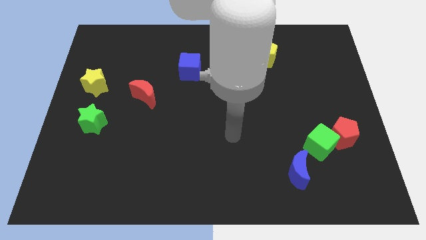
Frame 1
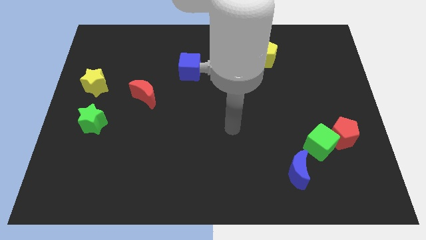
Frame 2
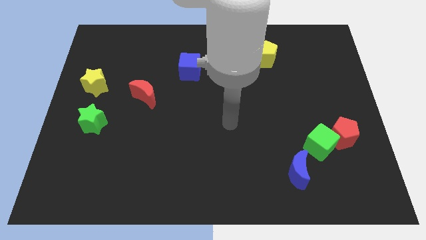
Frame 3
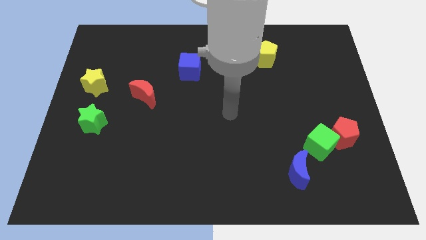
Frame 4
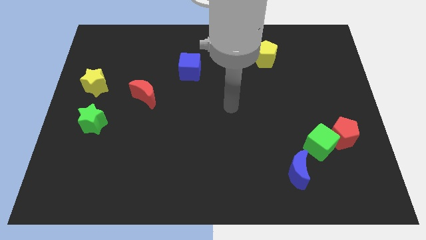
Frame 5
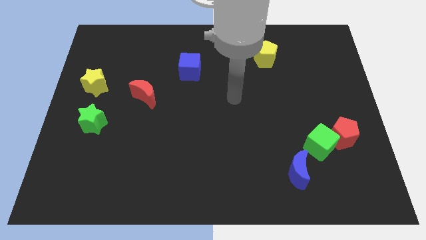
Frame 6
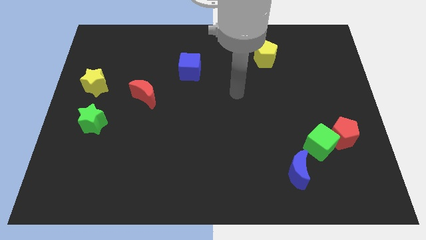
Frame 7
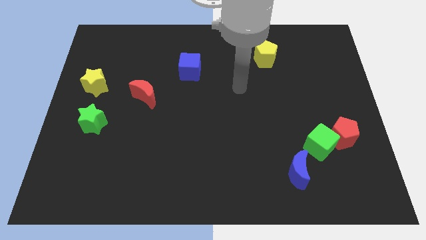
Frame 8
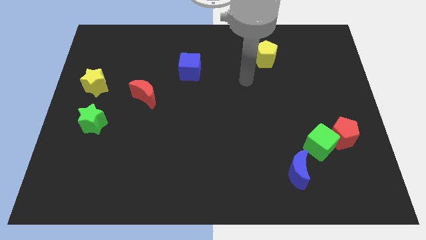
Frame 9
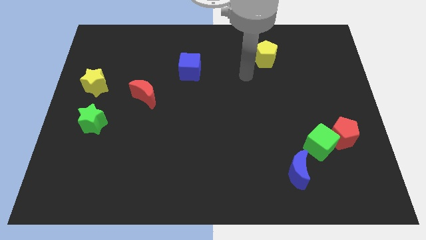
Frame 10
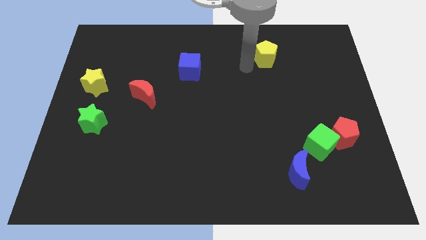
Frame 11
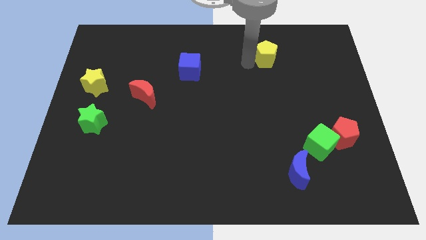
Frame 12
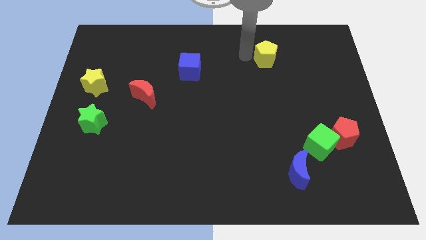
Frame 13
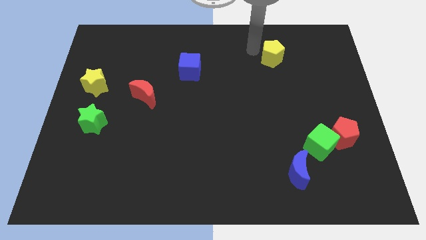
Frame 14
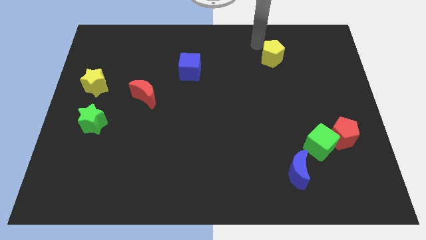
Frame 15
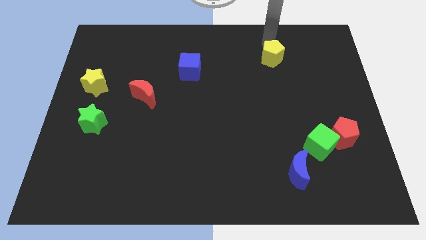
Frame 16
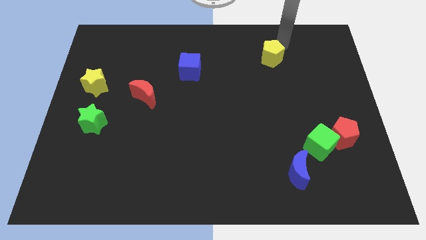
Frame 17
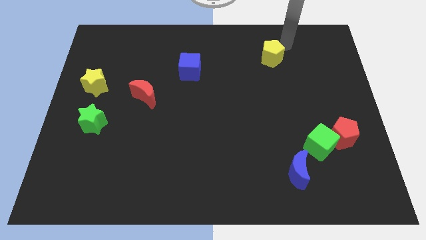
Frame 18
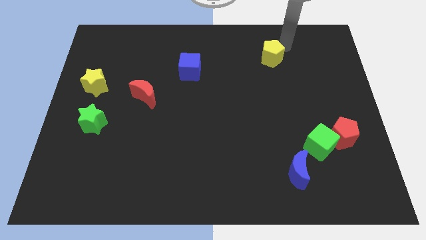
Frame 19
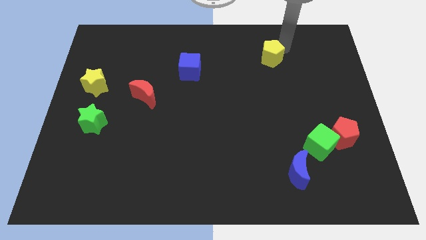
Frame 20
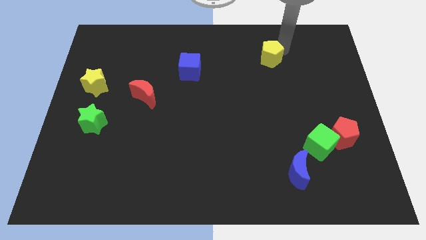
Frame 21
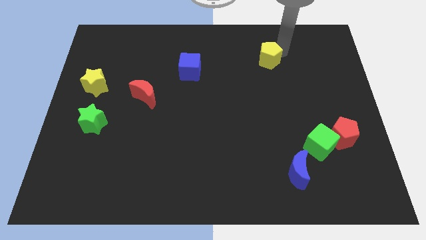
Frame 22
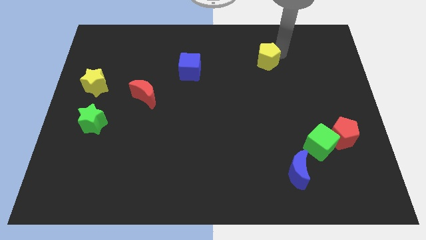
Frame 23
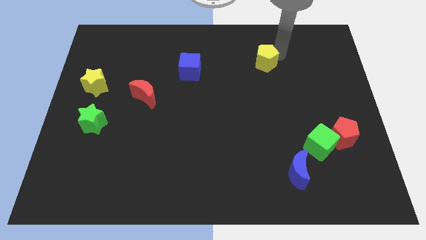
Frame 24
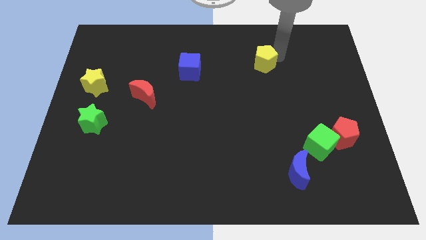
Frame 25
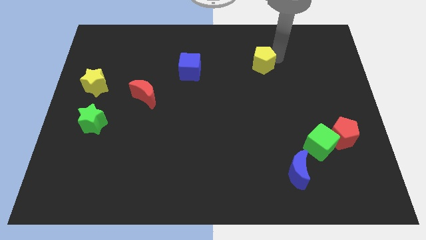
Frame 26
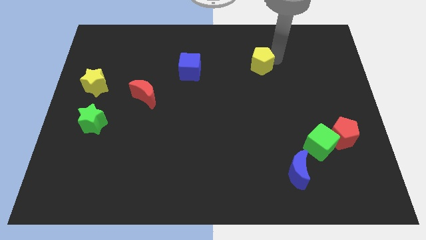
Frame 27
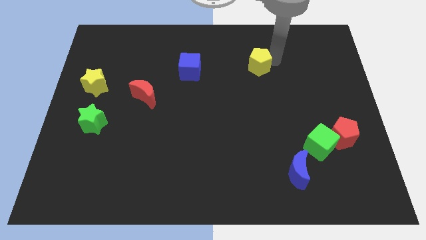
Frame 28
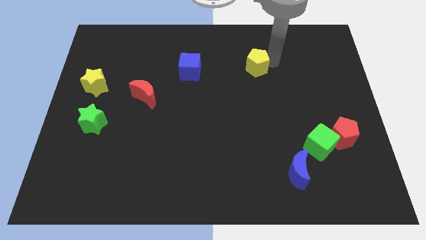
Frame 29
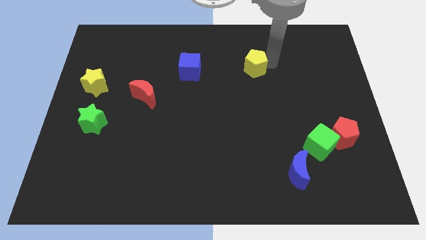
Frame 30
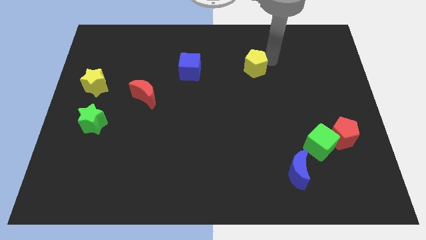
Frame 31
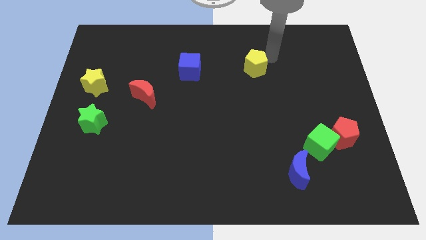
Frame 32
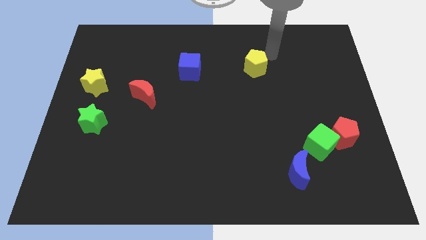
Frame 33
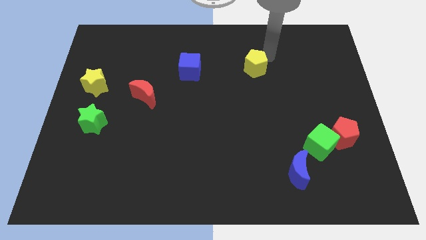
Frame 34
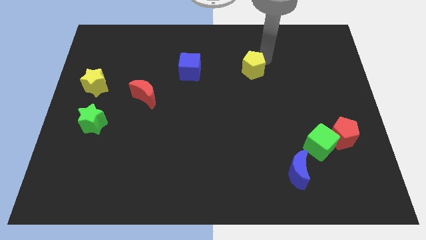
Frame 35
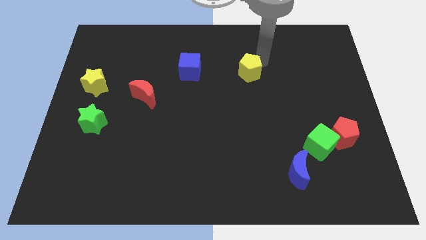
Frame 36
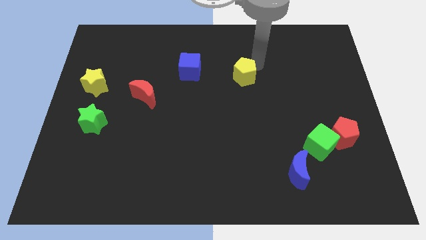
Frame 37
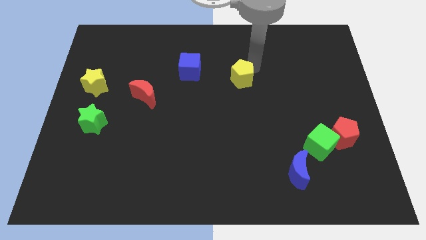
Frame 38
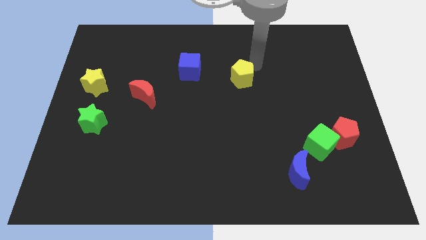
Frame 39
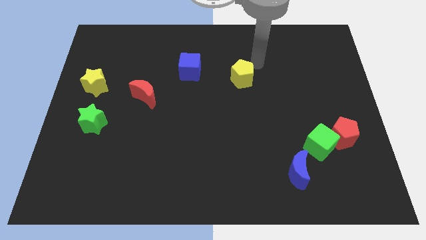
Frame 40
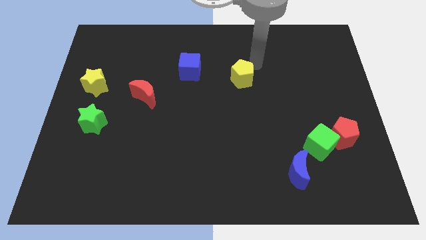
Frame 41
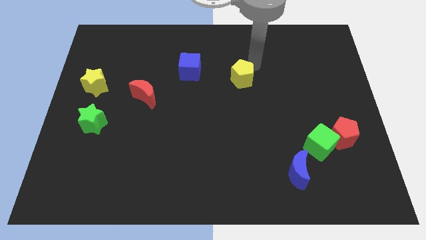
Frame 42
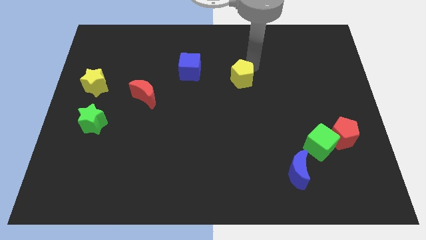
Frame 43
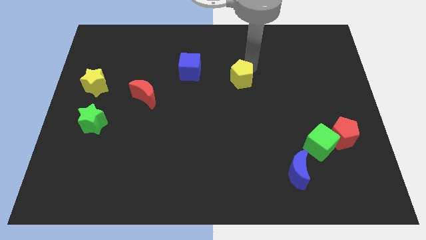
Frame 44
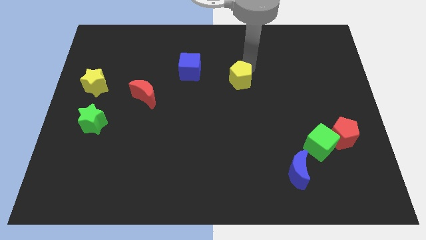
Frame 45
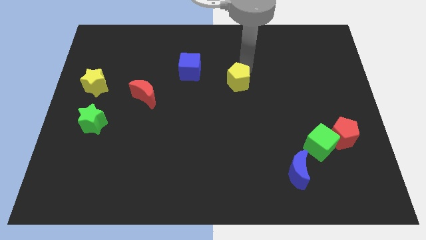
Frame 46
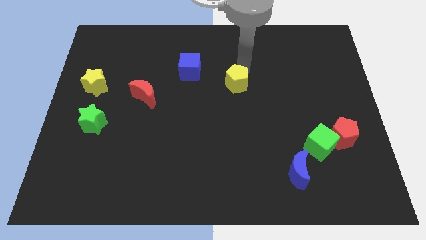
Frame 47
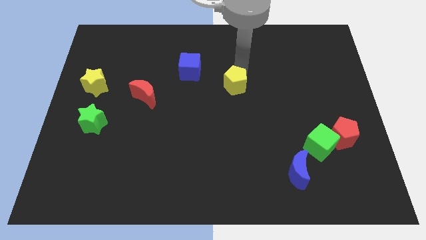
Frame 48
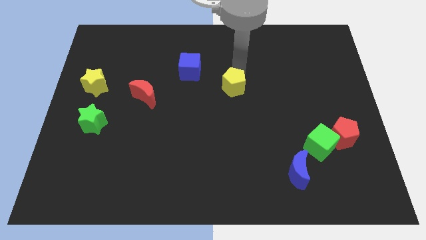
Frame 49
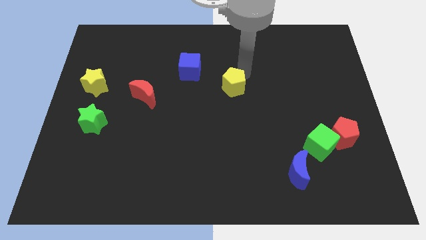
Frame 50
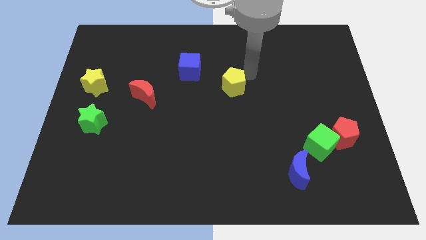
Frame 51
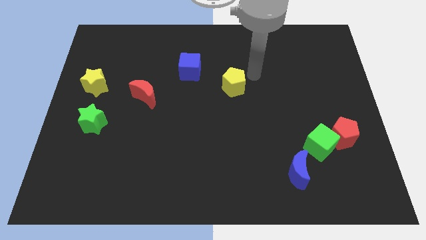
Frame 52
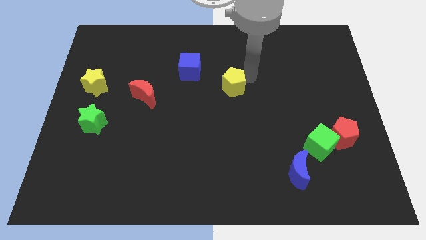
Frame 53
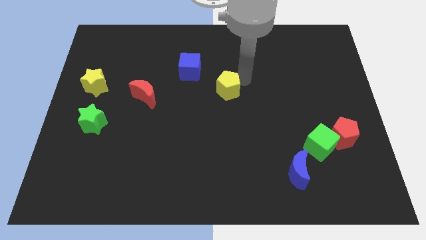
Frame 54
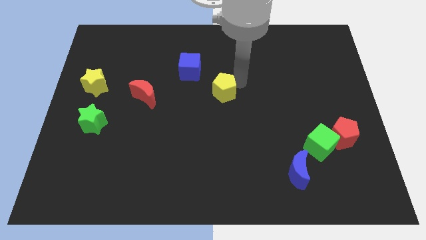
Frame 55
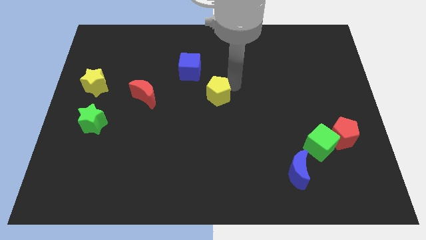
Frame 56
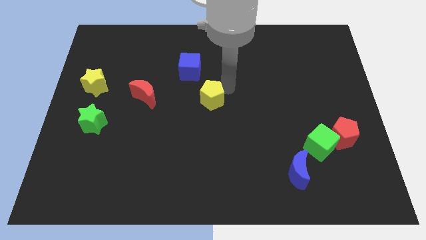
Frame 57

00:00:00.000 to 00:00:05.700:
slide the yellow pentagon diagonally down and left

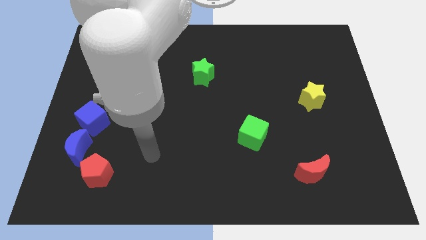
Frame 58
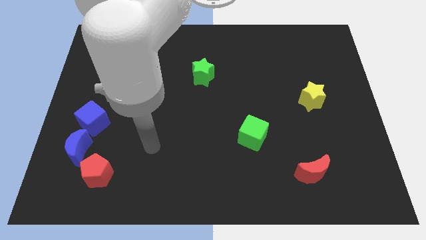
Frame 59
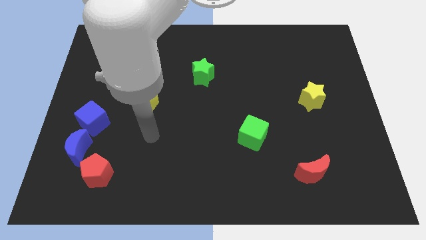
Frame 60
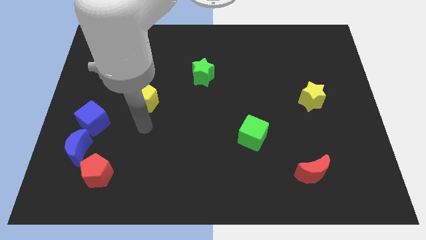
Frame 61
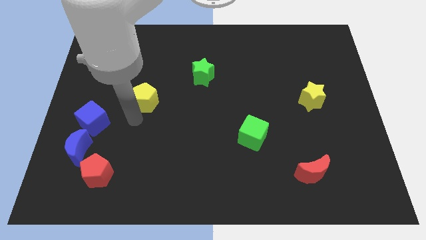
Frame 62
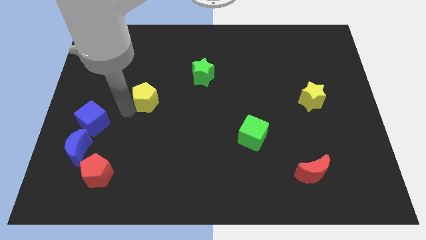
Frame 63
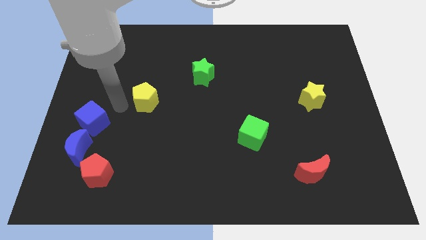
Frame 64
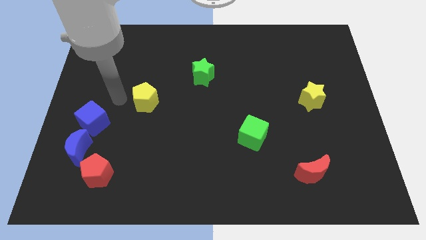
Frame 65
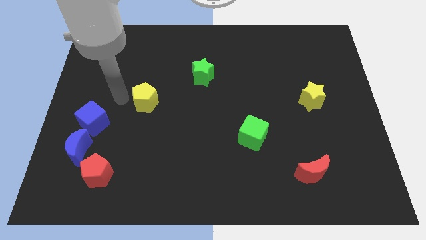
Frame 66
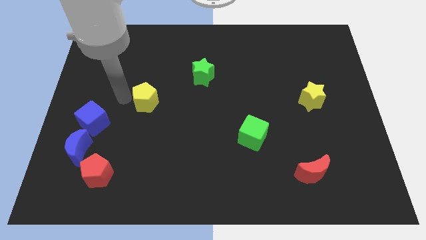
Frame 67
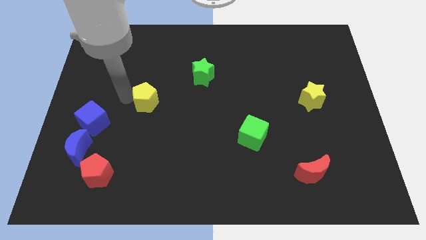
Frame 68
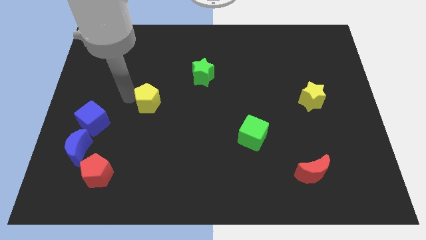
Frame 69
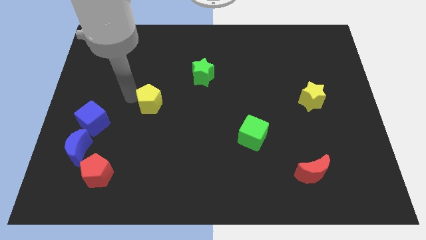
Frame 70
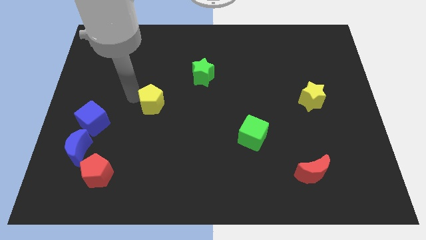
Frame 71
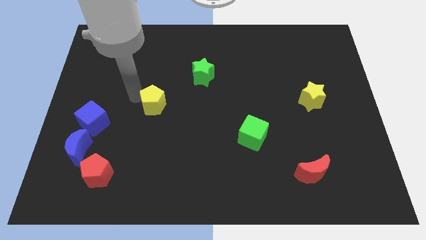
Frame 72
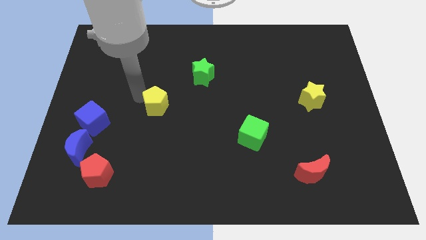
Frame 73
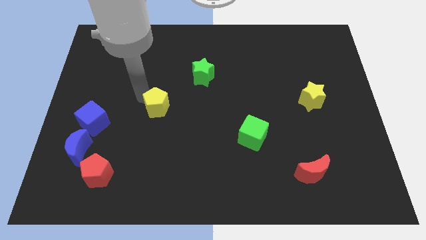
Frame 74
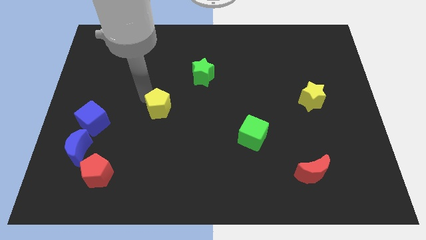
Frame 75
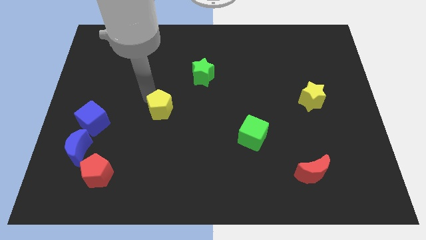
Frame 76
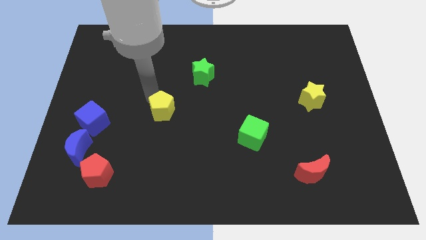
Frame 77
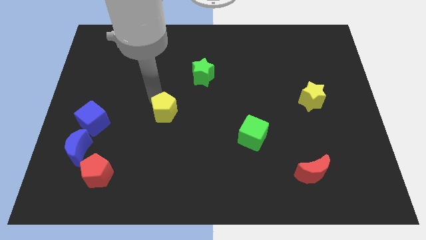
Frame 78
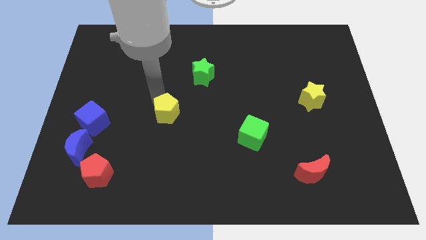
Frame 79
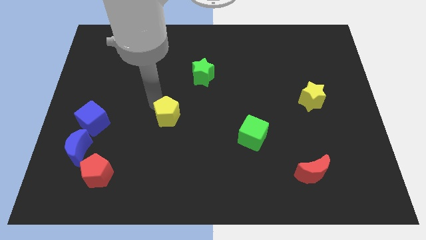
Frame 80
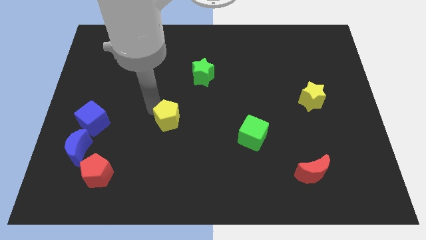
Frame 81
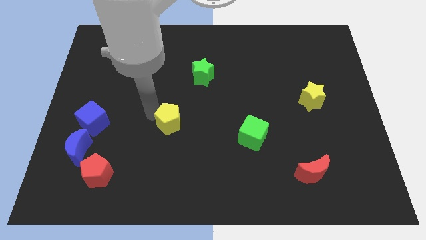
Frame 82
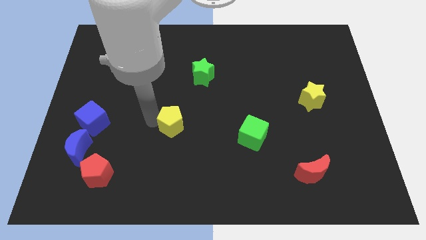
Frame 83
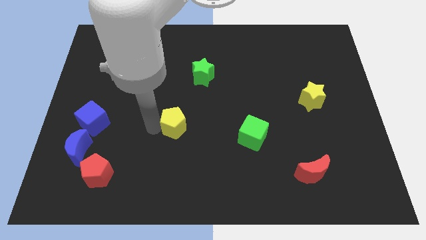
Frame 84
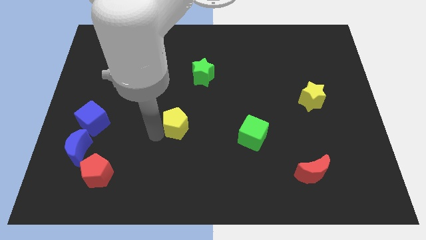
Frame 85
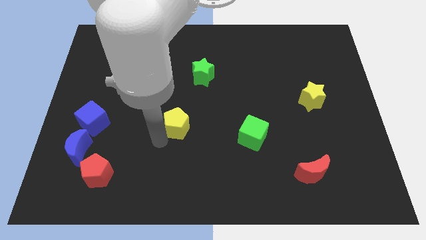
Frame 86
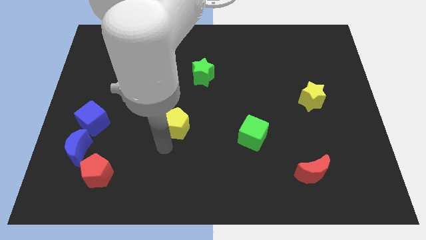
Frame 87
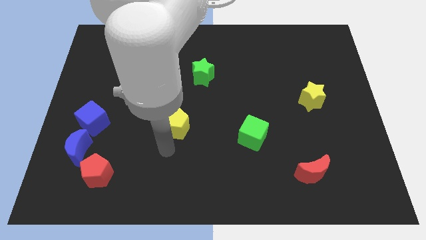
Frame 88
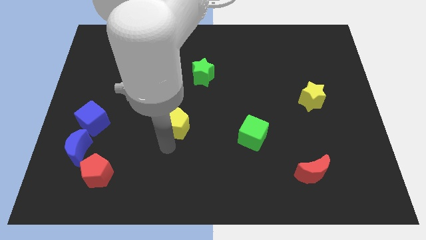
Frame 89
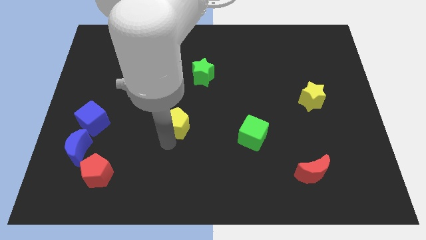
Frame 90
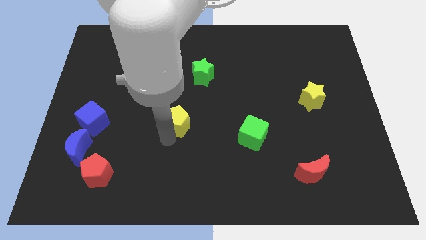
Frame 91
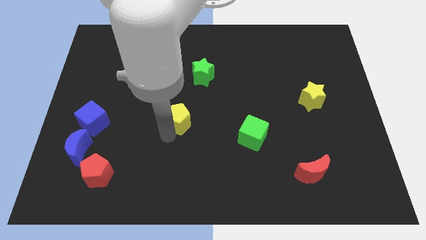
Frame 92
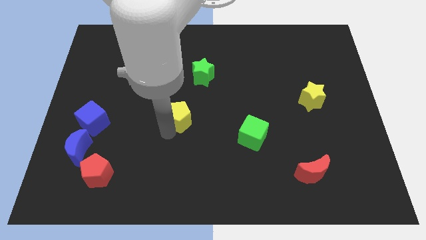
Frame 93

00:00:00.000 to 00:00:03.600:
push the yellow pentagon a little right
